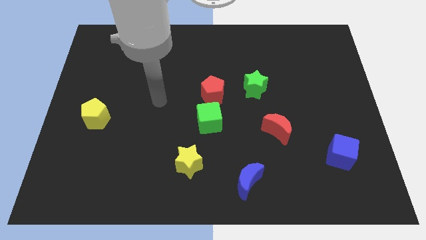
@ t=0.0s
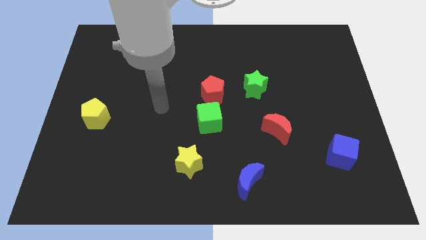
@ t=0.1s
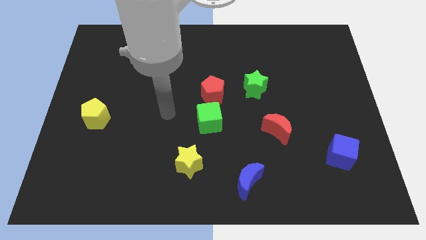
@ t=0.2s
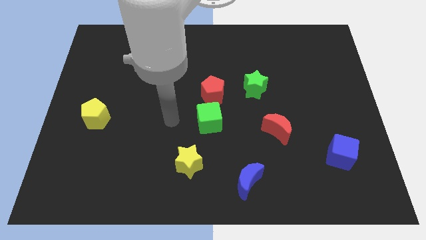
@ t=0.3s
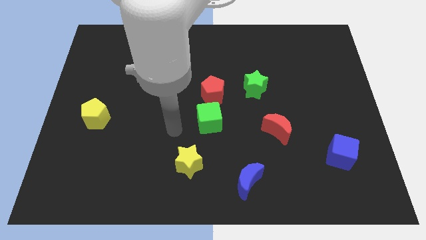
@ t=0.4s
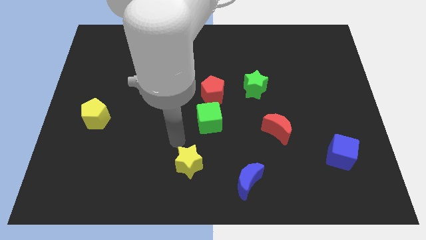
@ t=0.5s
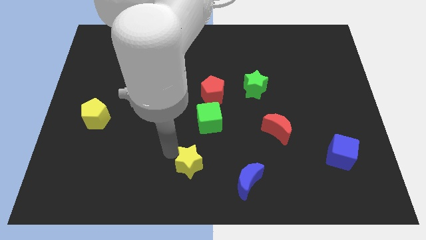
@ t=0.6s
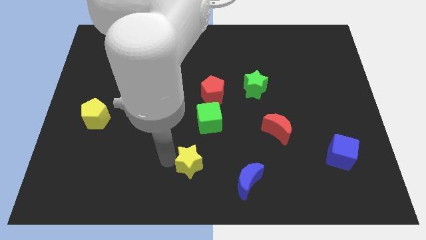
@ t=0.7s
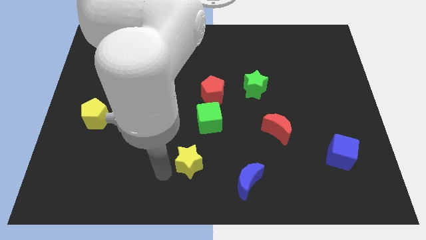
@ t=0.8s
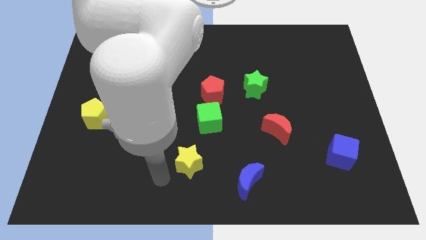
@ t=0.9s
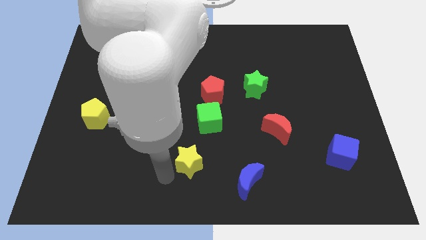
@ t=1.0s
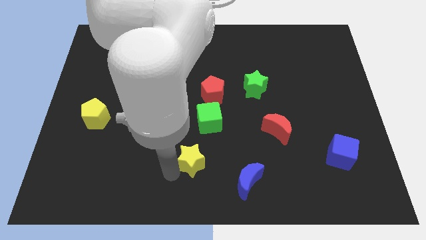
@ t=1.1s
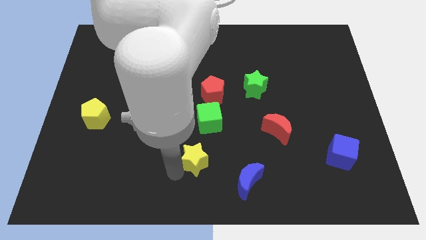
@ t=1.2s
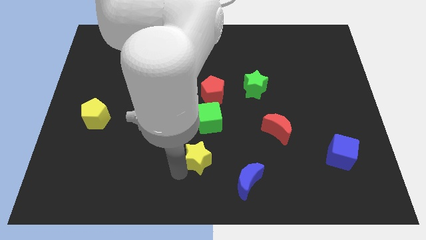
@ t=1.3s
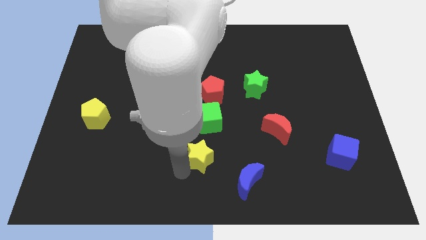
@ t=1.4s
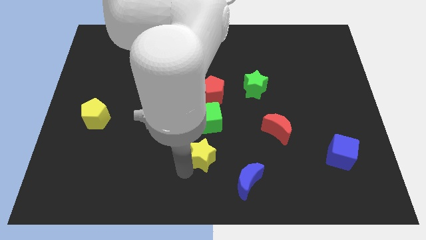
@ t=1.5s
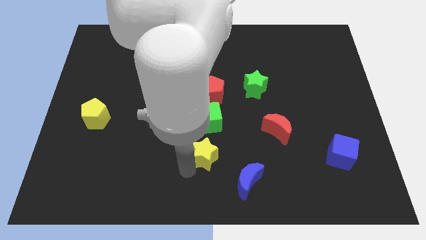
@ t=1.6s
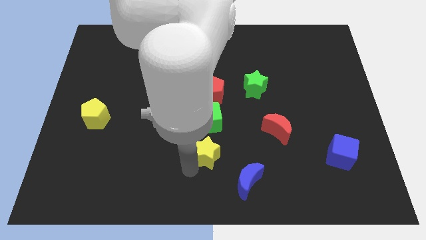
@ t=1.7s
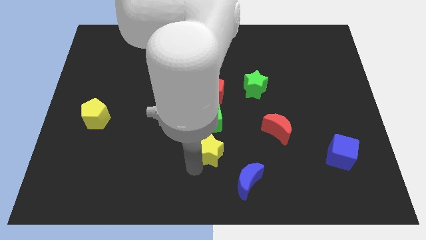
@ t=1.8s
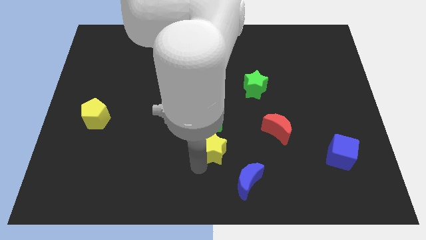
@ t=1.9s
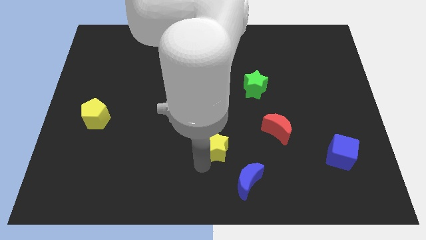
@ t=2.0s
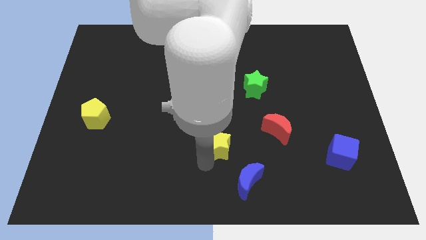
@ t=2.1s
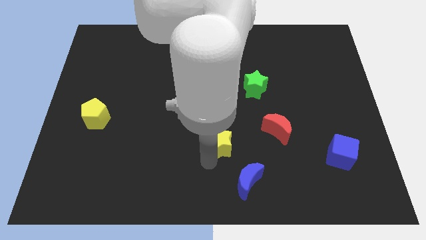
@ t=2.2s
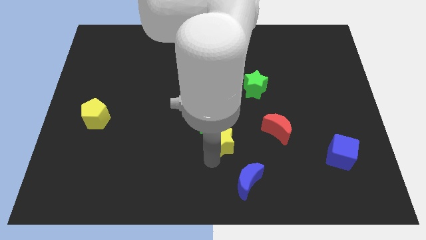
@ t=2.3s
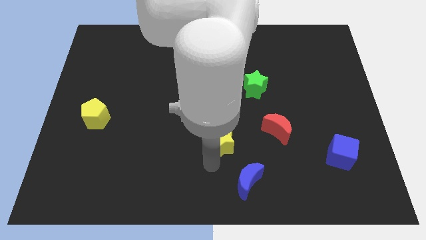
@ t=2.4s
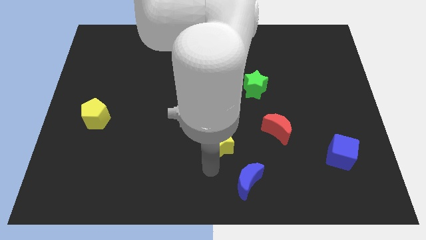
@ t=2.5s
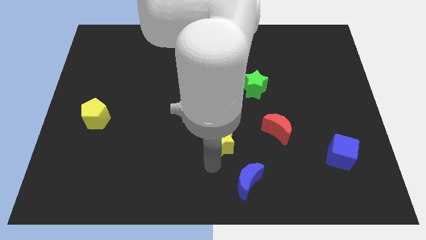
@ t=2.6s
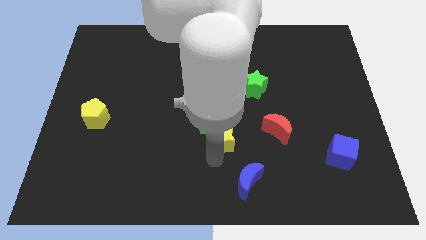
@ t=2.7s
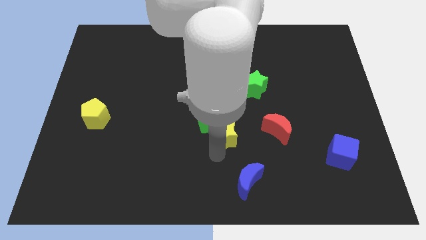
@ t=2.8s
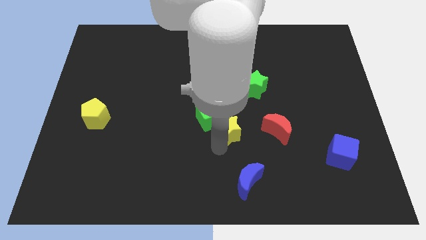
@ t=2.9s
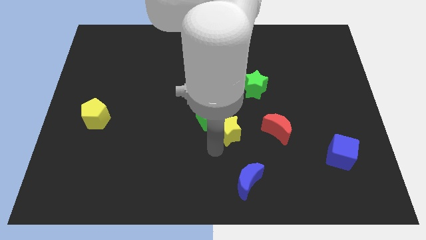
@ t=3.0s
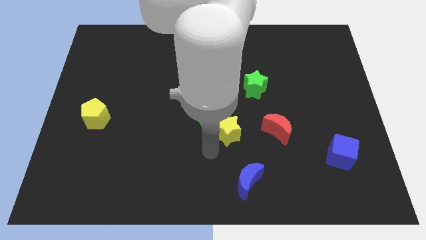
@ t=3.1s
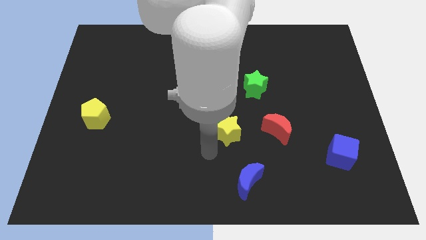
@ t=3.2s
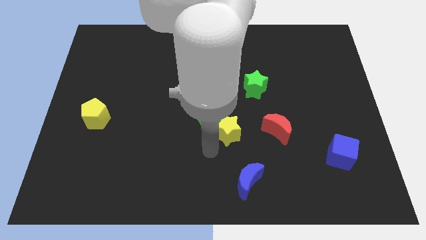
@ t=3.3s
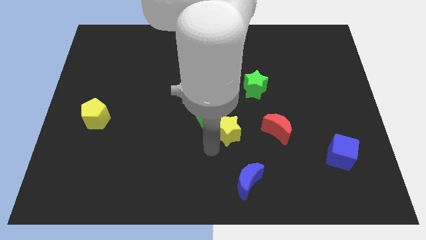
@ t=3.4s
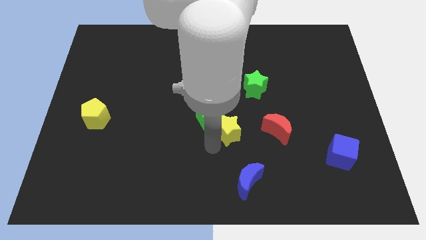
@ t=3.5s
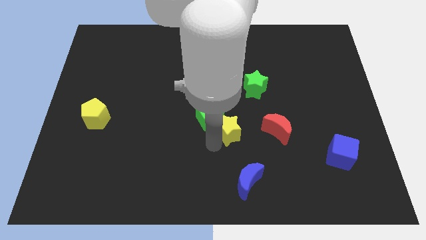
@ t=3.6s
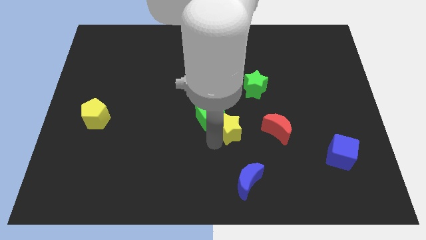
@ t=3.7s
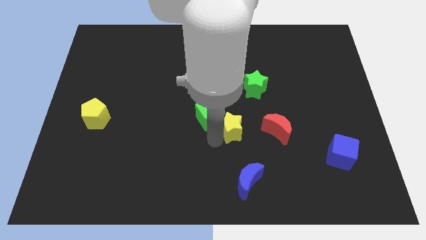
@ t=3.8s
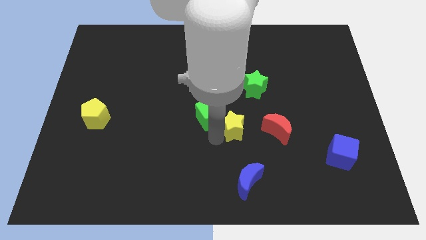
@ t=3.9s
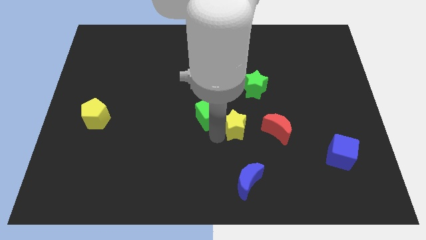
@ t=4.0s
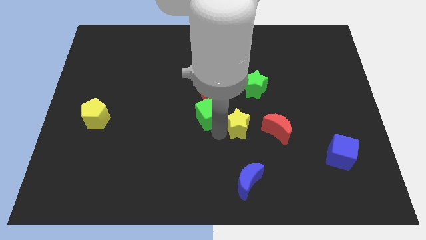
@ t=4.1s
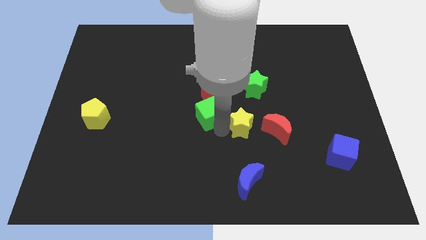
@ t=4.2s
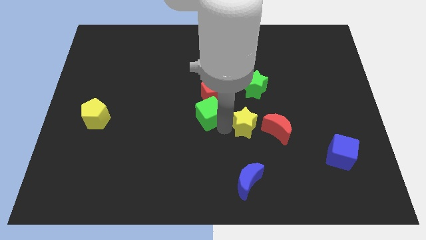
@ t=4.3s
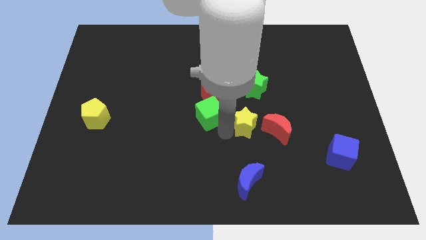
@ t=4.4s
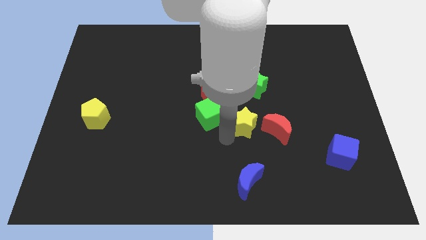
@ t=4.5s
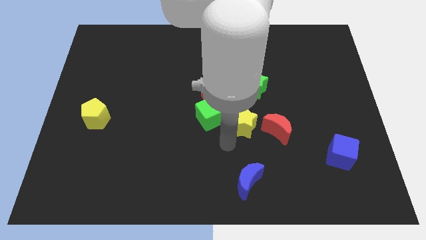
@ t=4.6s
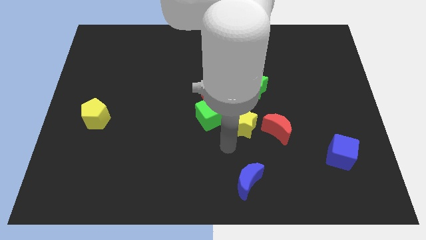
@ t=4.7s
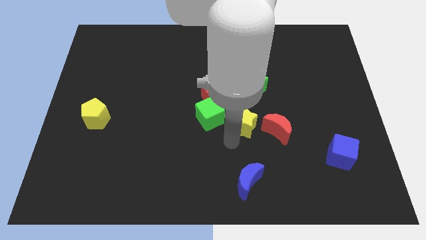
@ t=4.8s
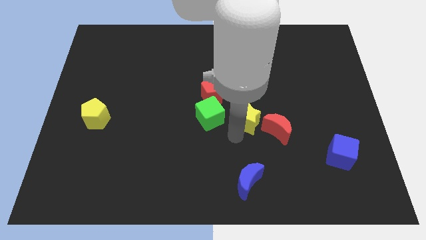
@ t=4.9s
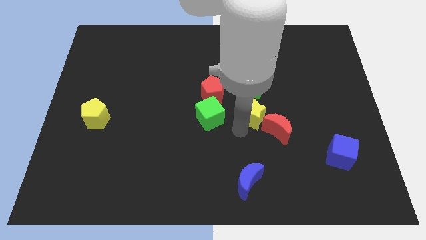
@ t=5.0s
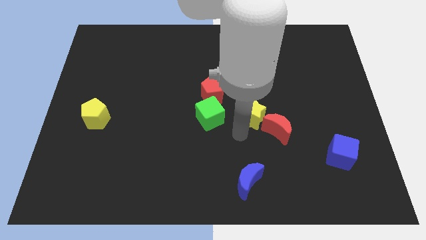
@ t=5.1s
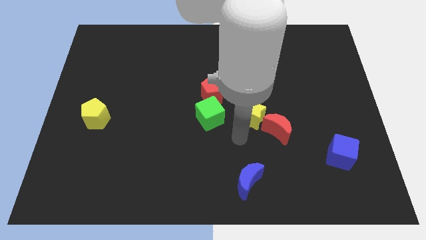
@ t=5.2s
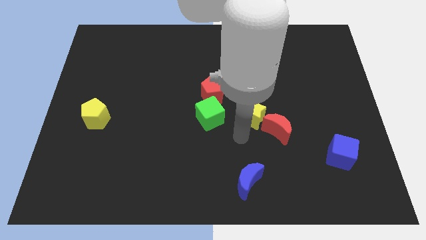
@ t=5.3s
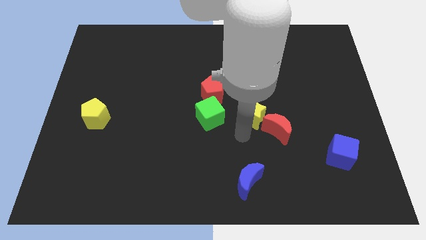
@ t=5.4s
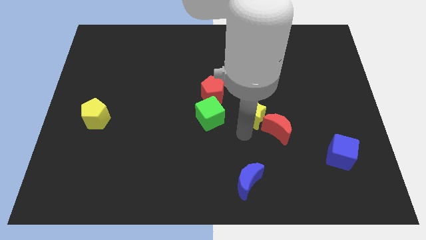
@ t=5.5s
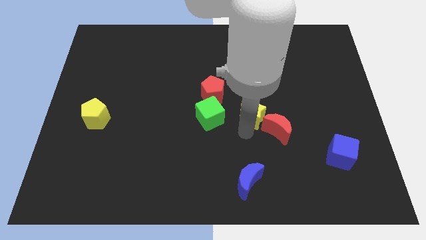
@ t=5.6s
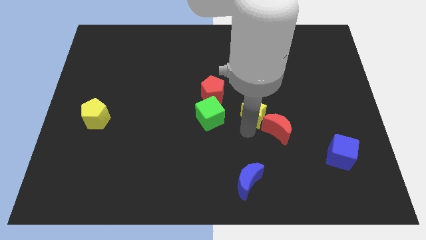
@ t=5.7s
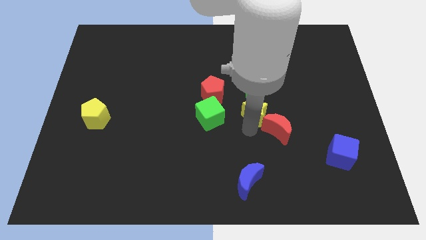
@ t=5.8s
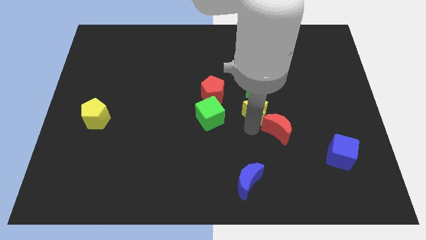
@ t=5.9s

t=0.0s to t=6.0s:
move the yellow star up and then right

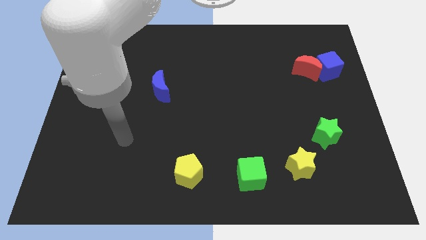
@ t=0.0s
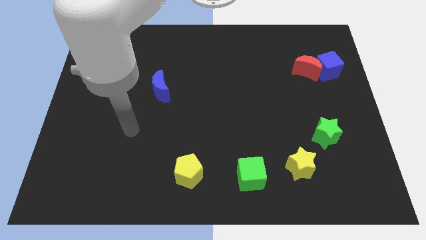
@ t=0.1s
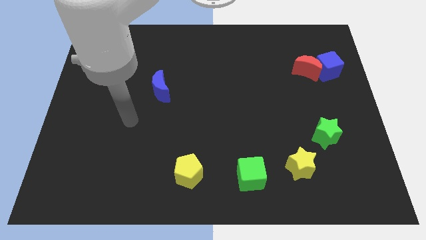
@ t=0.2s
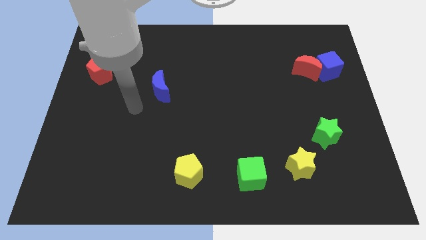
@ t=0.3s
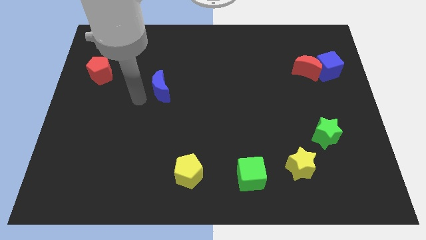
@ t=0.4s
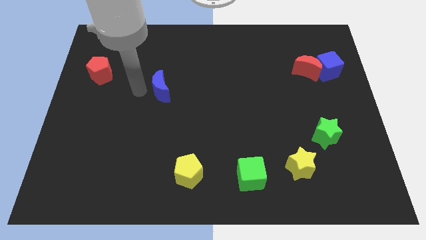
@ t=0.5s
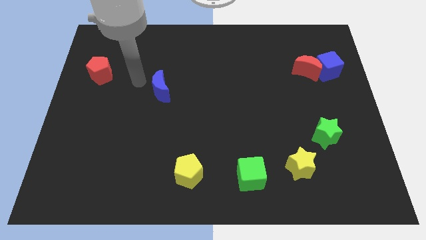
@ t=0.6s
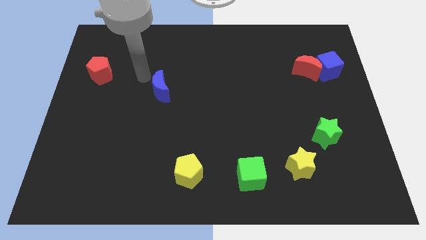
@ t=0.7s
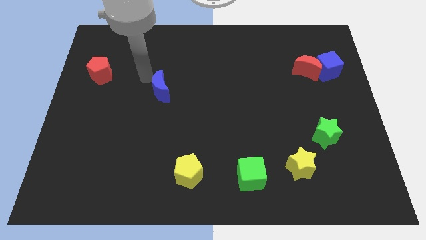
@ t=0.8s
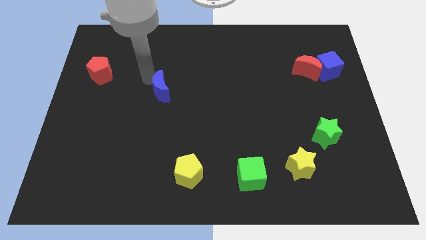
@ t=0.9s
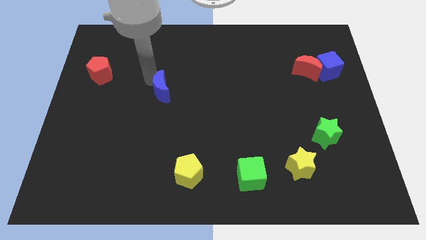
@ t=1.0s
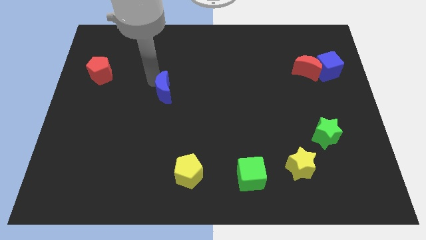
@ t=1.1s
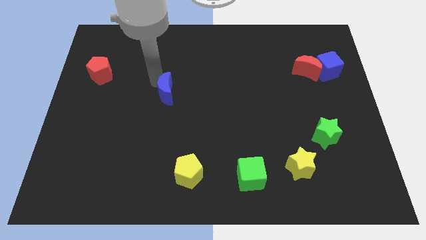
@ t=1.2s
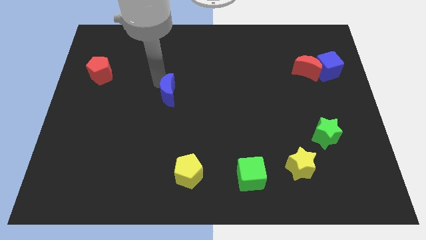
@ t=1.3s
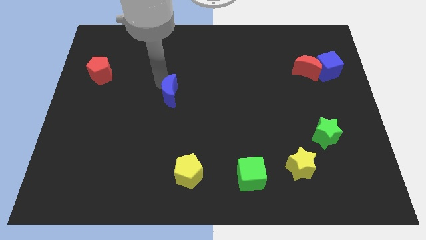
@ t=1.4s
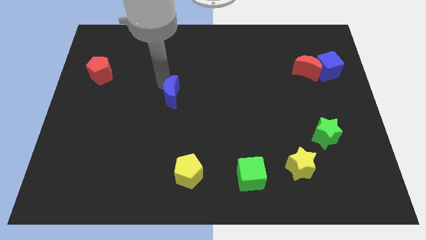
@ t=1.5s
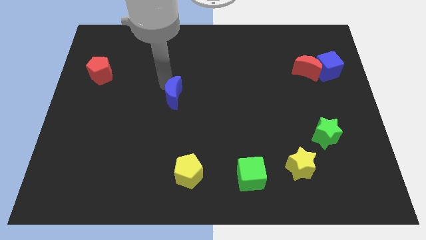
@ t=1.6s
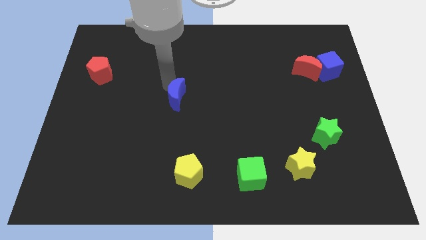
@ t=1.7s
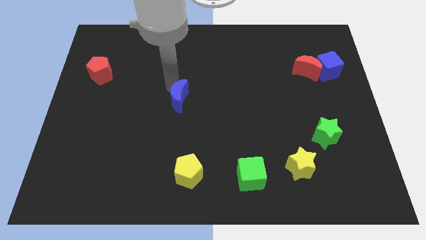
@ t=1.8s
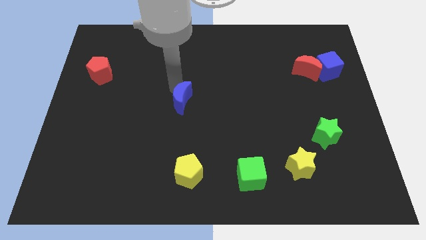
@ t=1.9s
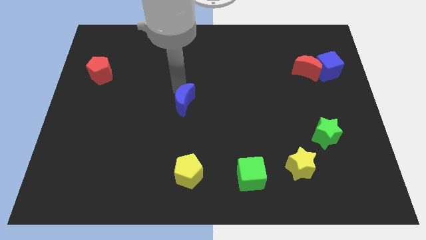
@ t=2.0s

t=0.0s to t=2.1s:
slide the blue moon diagonally down and right slightly
